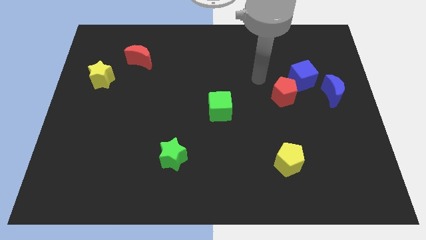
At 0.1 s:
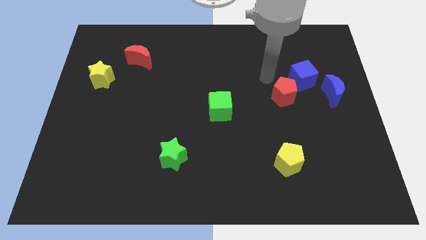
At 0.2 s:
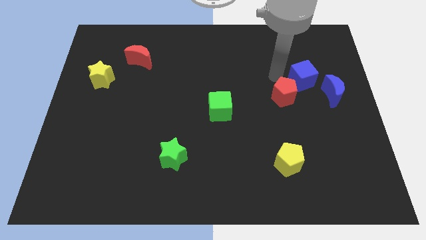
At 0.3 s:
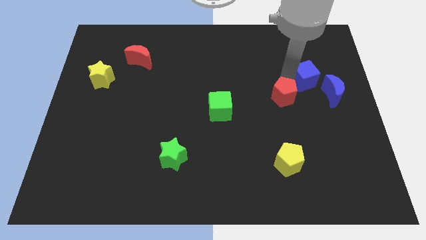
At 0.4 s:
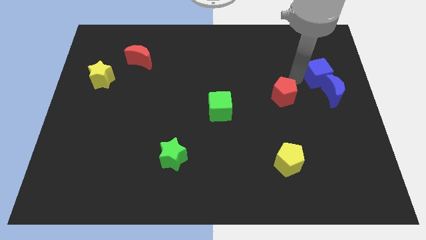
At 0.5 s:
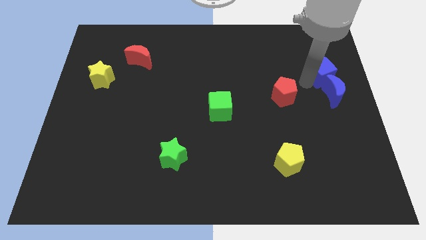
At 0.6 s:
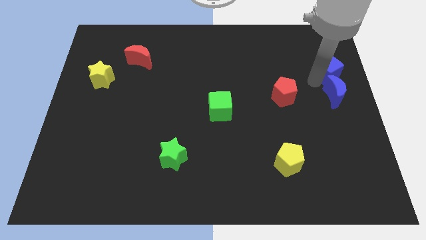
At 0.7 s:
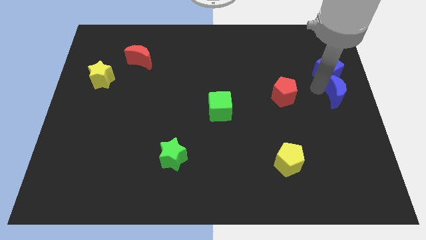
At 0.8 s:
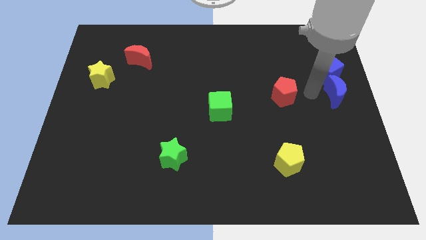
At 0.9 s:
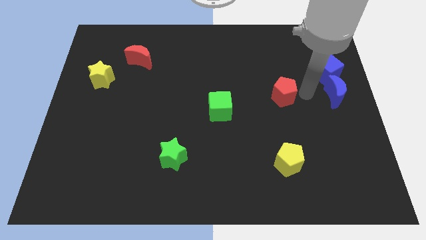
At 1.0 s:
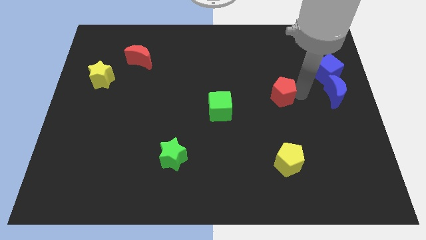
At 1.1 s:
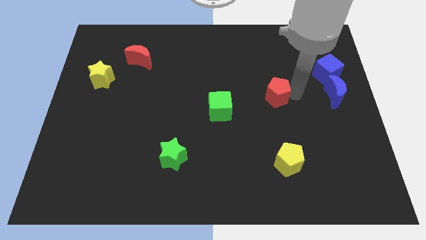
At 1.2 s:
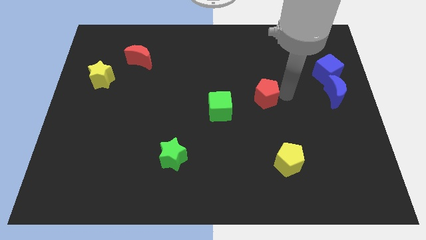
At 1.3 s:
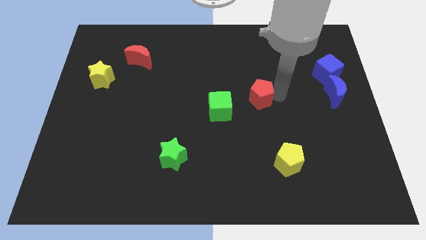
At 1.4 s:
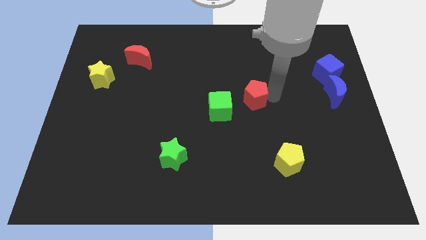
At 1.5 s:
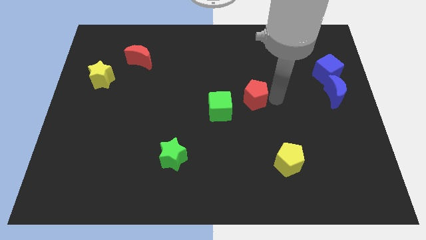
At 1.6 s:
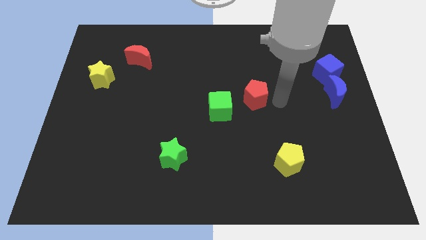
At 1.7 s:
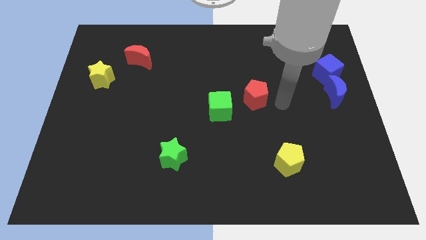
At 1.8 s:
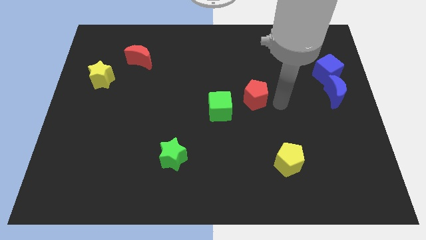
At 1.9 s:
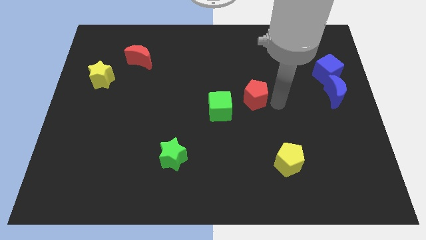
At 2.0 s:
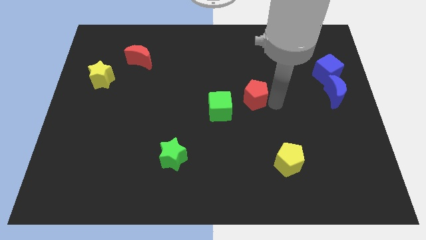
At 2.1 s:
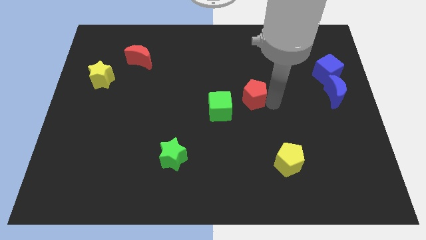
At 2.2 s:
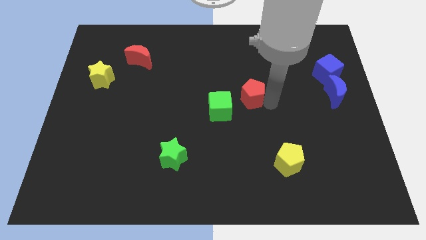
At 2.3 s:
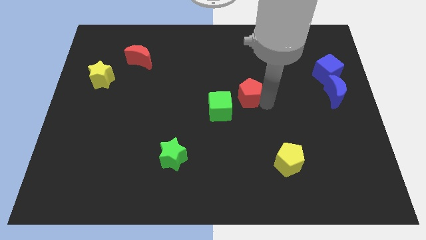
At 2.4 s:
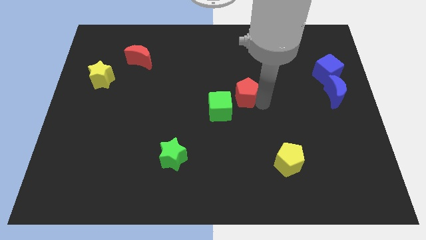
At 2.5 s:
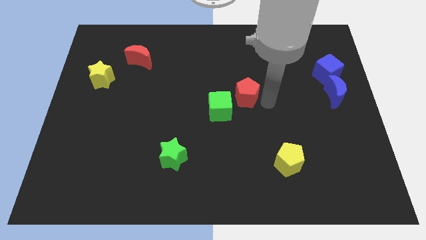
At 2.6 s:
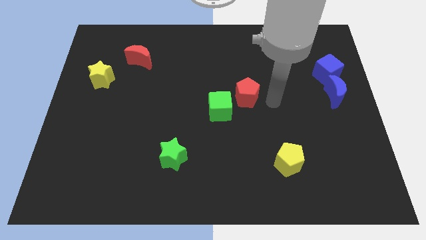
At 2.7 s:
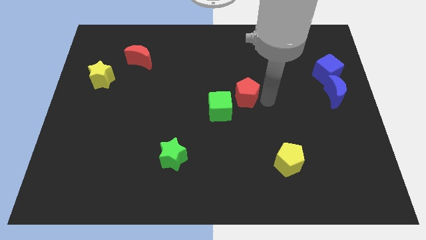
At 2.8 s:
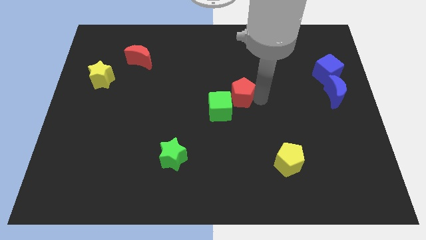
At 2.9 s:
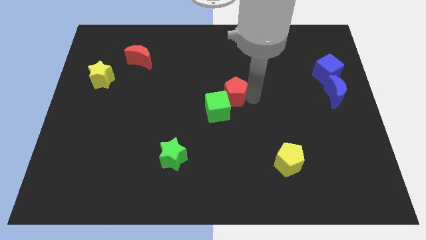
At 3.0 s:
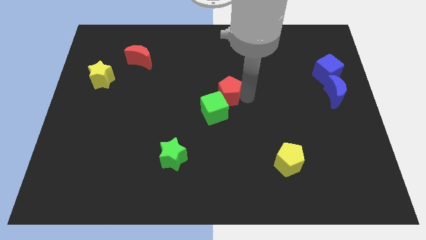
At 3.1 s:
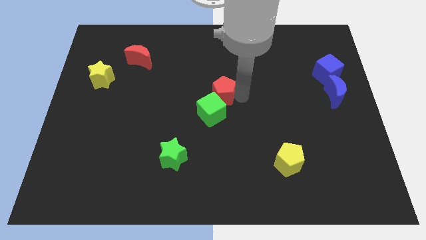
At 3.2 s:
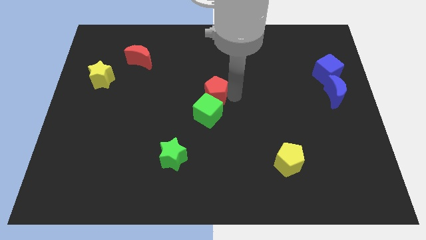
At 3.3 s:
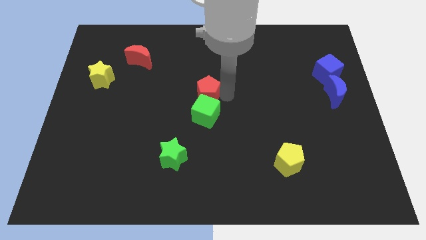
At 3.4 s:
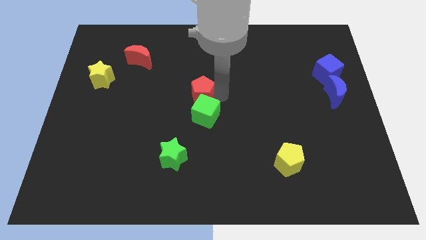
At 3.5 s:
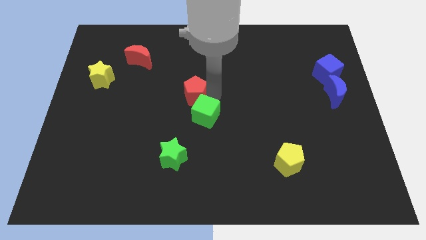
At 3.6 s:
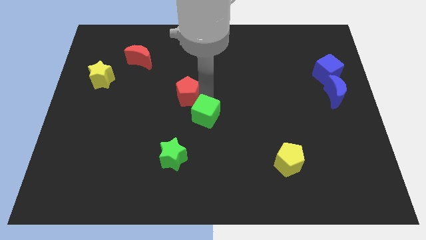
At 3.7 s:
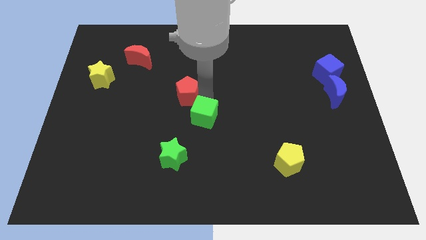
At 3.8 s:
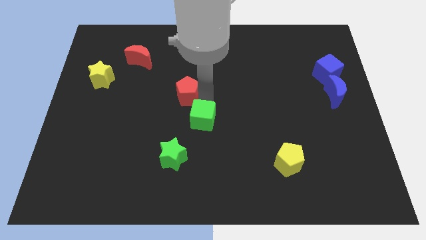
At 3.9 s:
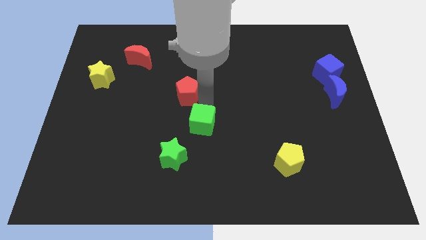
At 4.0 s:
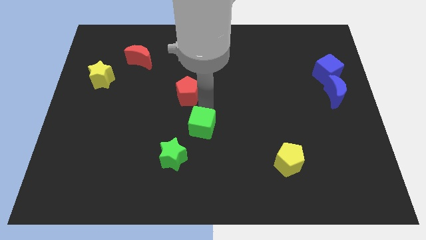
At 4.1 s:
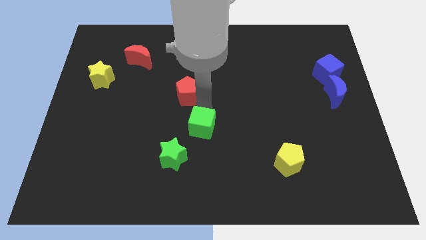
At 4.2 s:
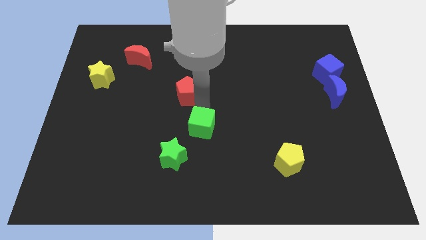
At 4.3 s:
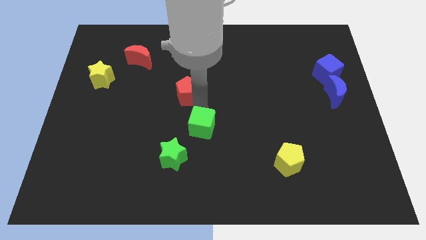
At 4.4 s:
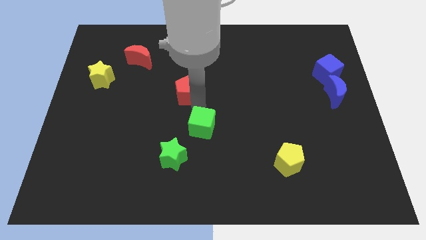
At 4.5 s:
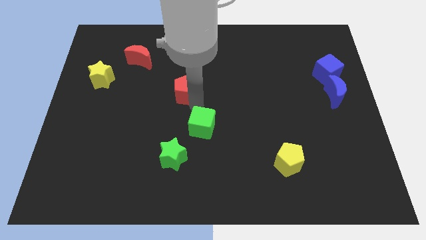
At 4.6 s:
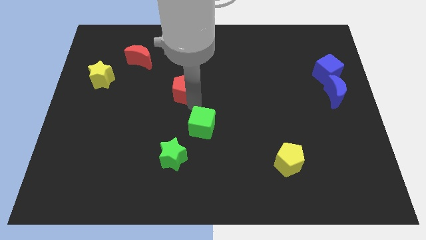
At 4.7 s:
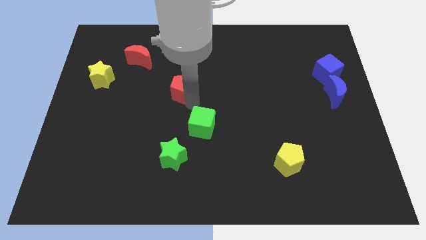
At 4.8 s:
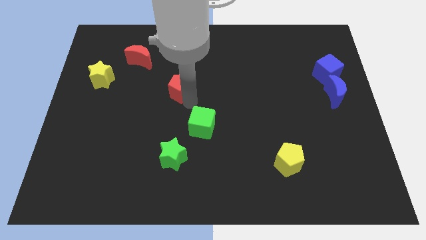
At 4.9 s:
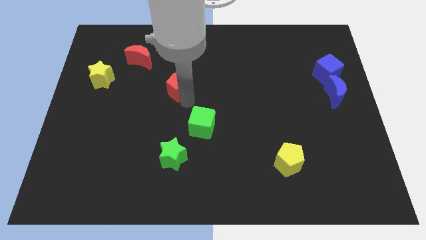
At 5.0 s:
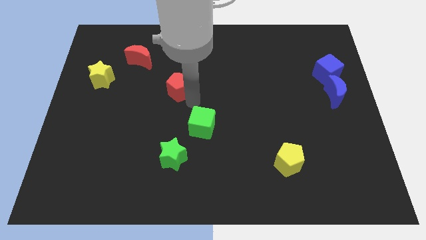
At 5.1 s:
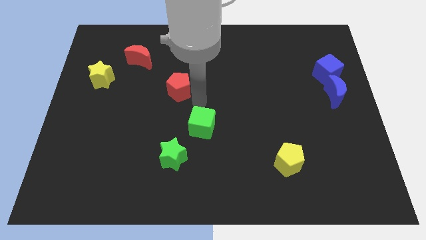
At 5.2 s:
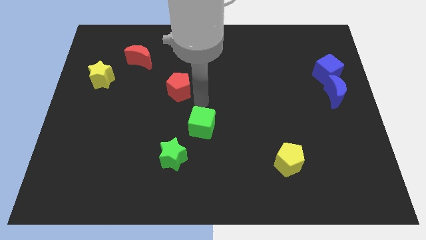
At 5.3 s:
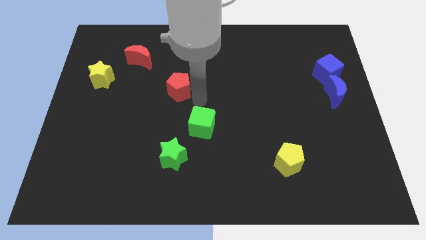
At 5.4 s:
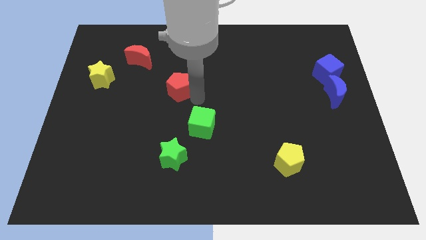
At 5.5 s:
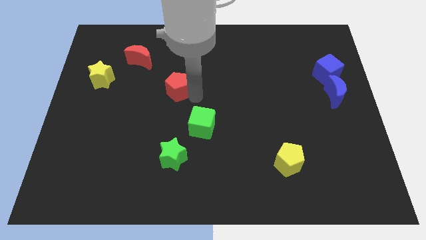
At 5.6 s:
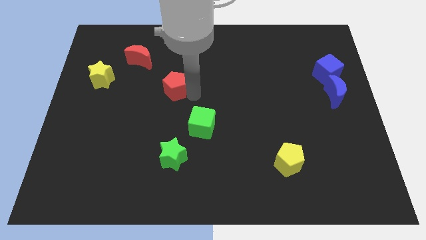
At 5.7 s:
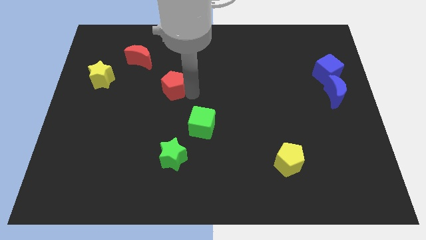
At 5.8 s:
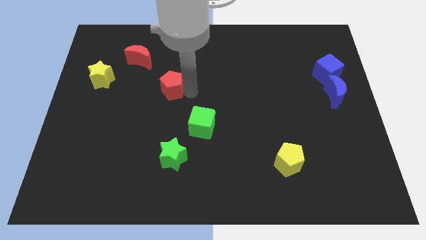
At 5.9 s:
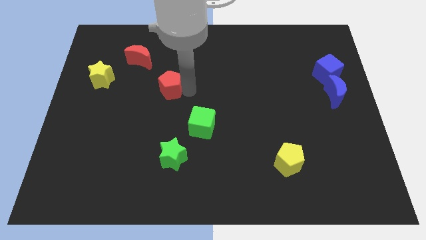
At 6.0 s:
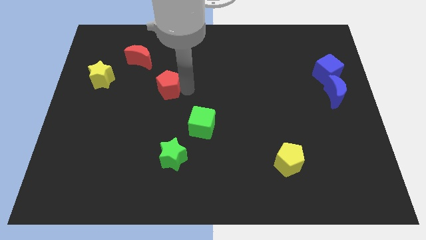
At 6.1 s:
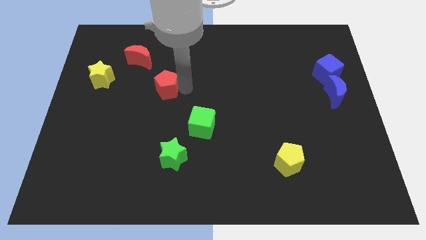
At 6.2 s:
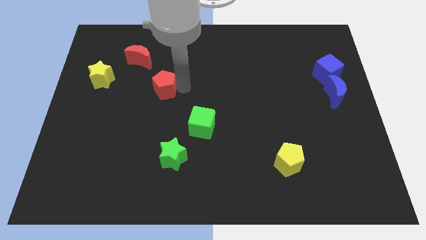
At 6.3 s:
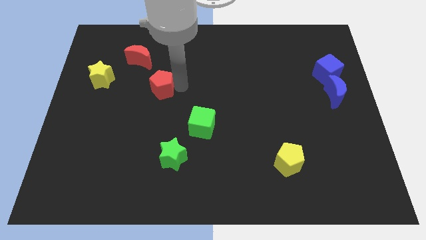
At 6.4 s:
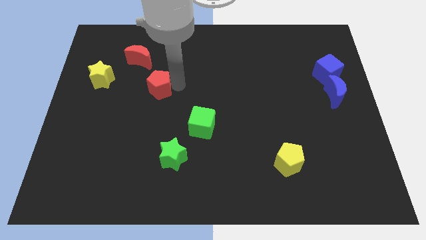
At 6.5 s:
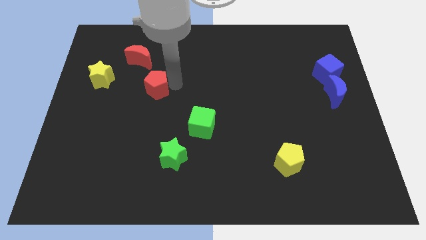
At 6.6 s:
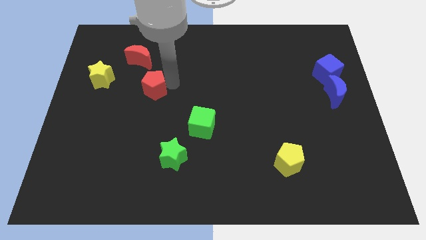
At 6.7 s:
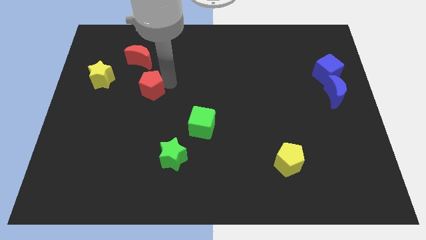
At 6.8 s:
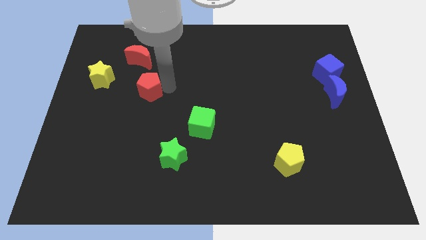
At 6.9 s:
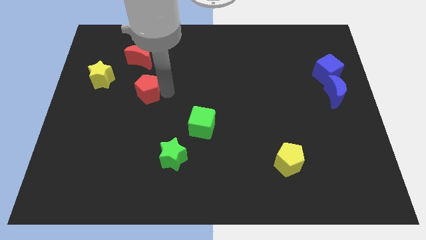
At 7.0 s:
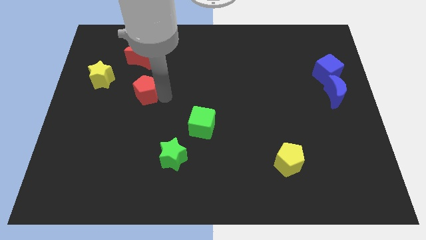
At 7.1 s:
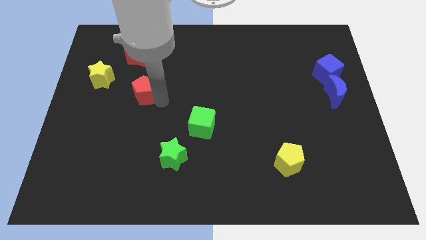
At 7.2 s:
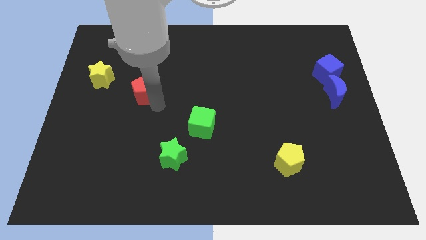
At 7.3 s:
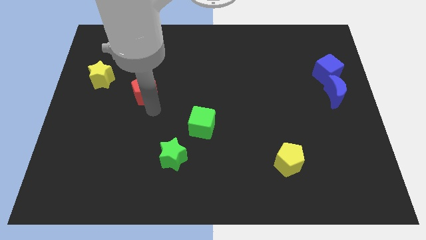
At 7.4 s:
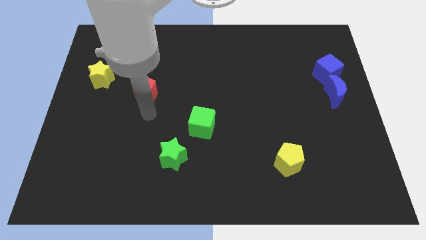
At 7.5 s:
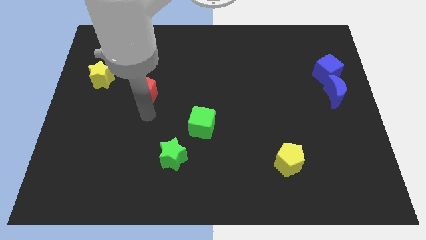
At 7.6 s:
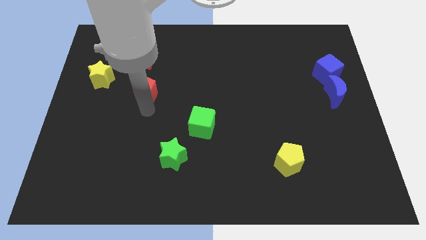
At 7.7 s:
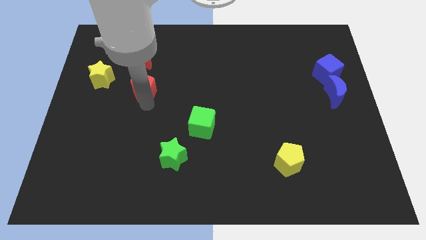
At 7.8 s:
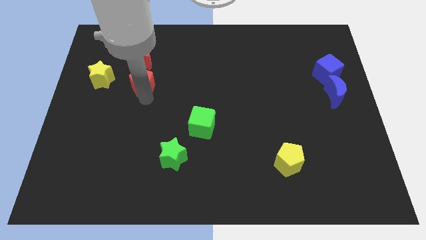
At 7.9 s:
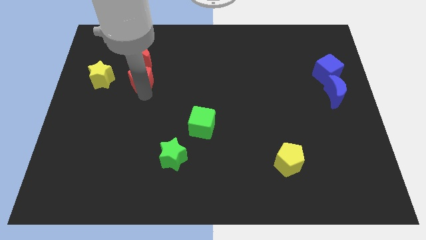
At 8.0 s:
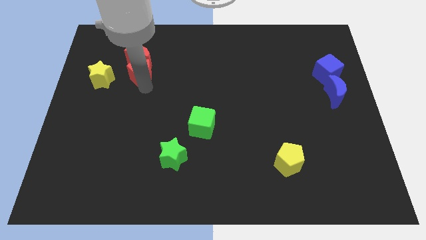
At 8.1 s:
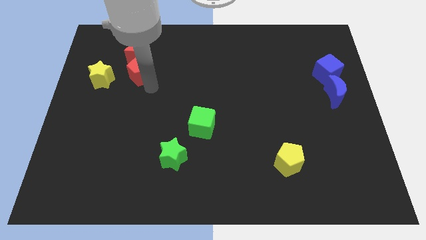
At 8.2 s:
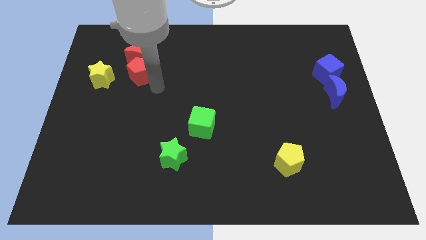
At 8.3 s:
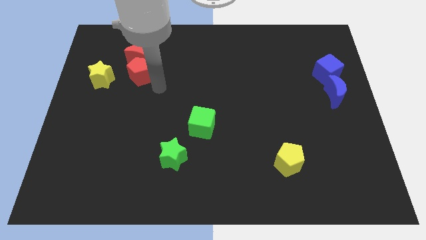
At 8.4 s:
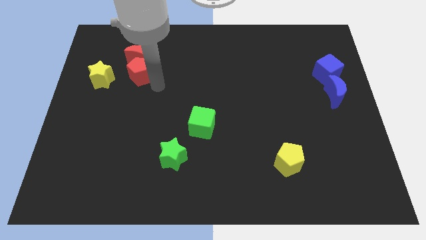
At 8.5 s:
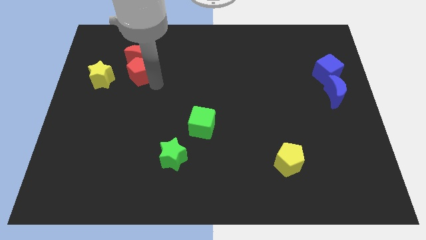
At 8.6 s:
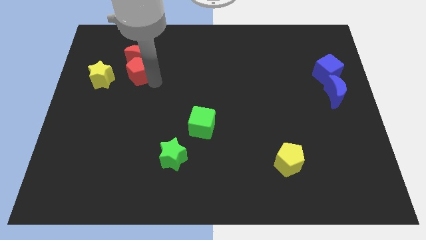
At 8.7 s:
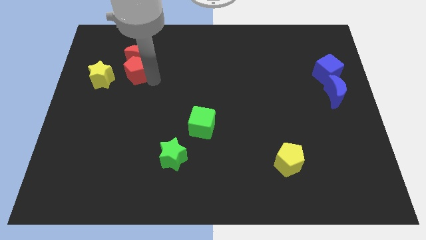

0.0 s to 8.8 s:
push the red pentagon diagonally up and to the right of the yellow star
